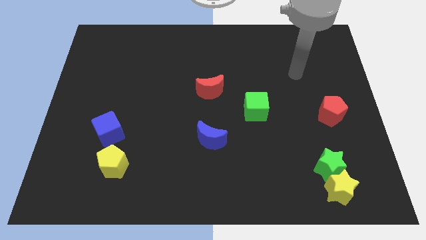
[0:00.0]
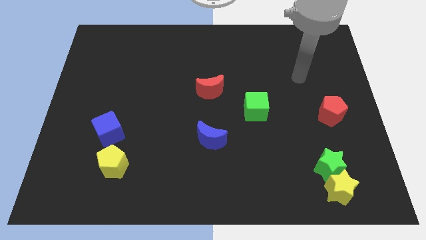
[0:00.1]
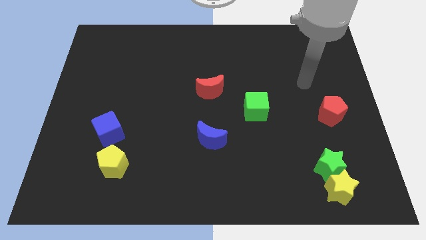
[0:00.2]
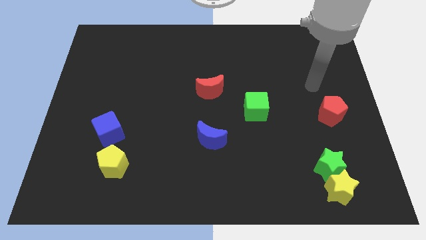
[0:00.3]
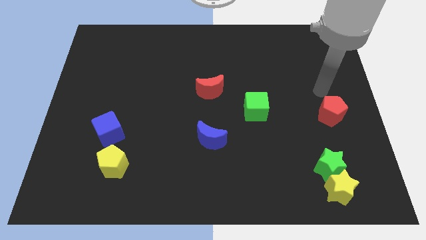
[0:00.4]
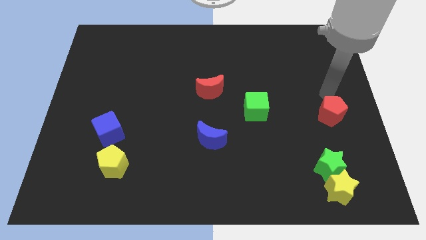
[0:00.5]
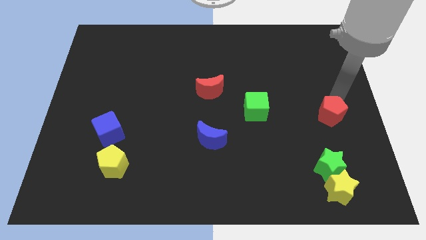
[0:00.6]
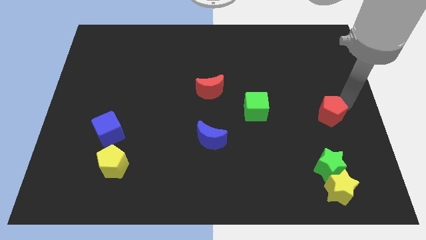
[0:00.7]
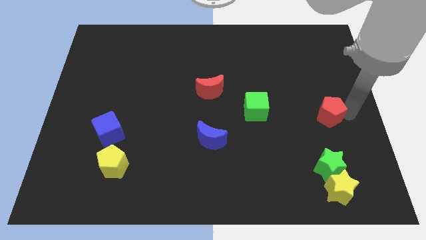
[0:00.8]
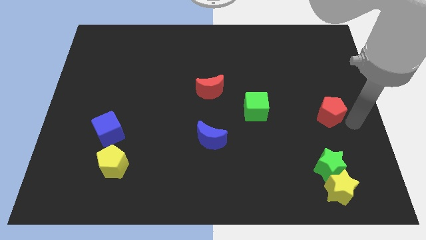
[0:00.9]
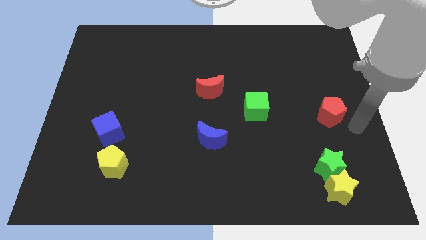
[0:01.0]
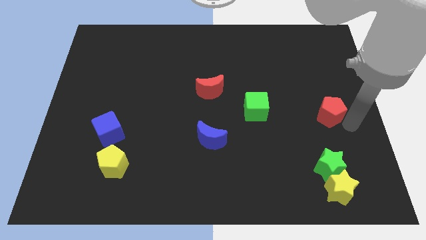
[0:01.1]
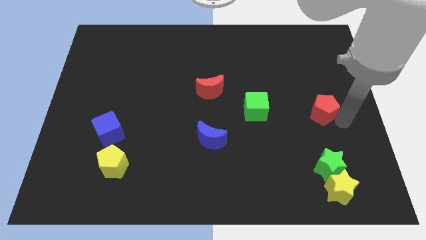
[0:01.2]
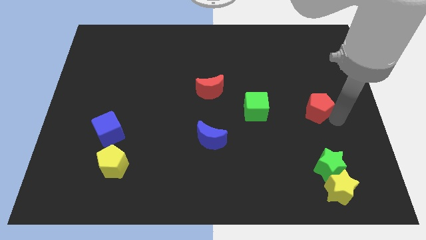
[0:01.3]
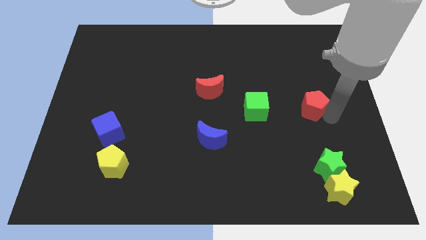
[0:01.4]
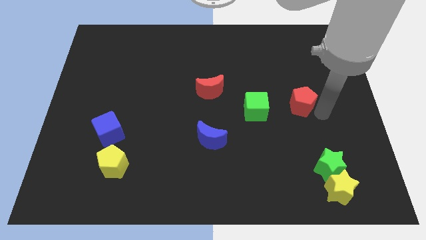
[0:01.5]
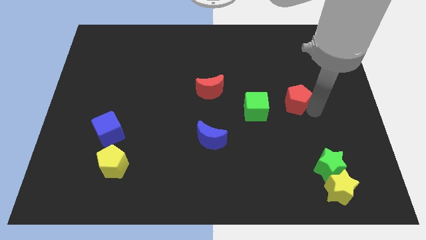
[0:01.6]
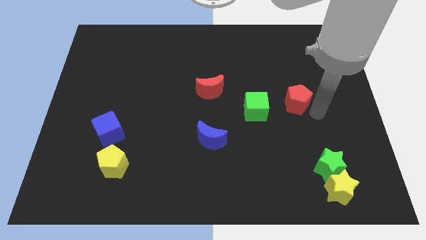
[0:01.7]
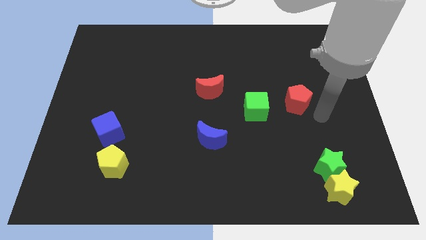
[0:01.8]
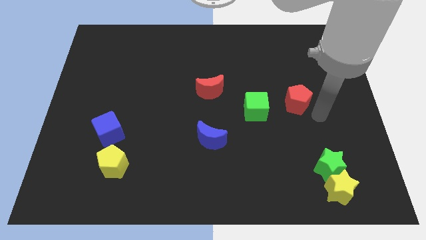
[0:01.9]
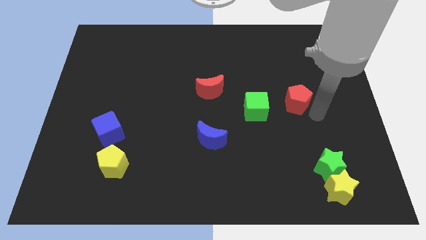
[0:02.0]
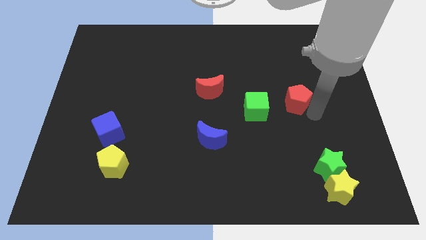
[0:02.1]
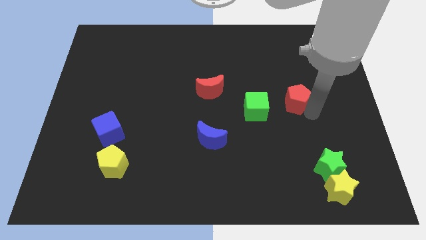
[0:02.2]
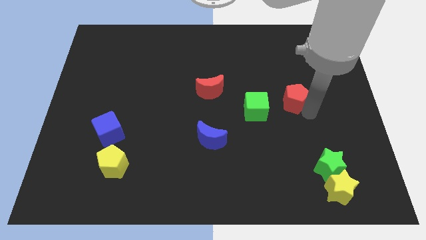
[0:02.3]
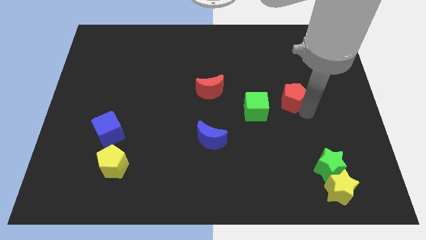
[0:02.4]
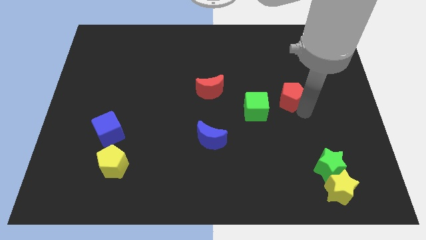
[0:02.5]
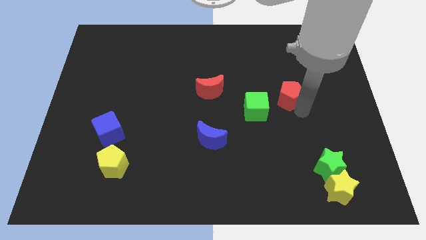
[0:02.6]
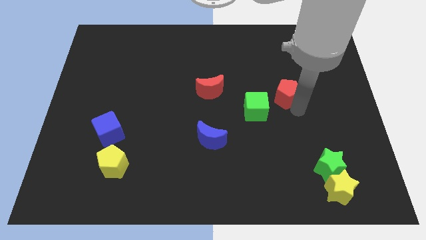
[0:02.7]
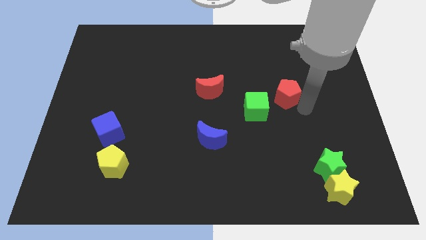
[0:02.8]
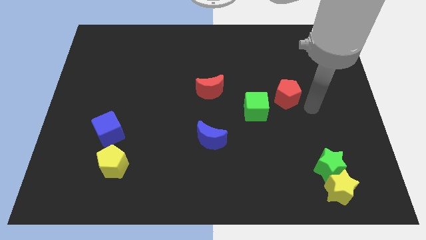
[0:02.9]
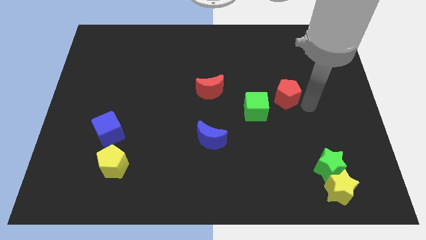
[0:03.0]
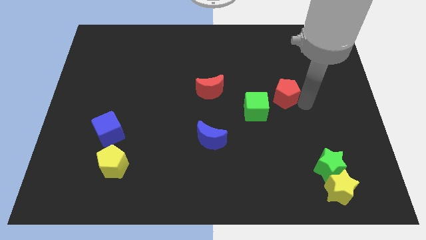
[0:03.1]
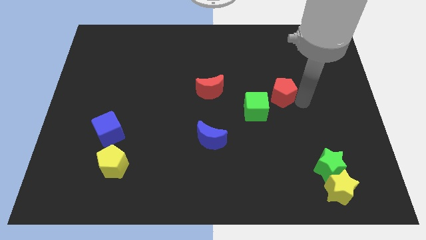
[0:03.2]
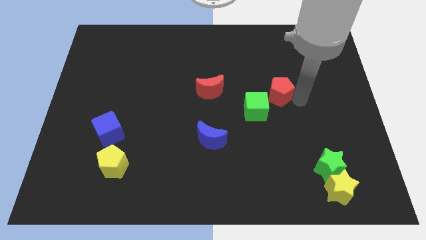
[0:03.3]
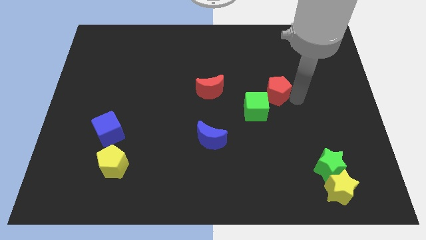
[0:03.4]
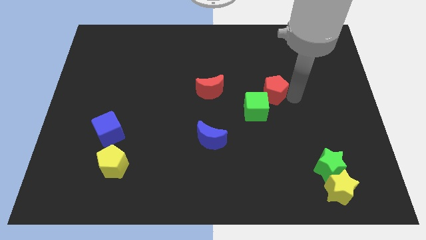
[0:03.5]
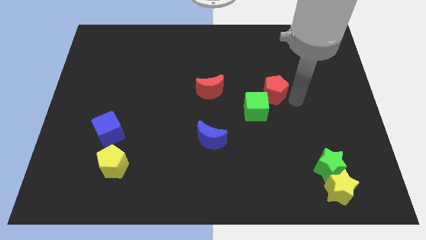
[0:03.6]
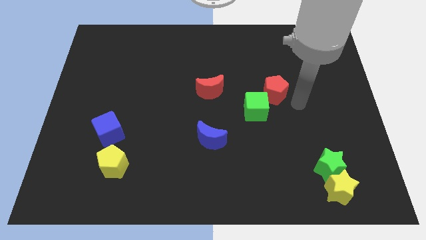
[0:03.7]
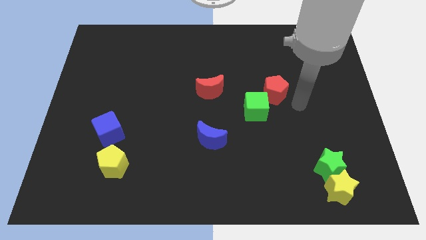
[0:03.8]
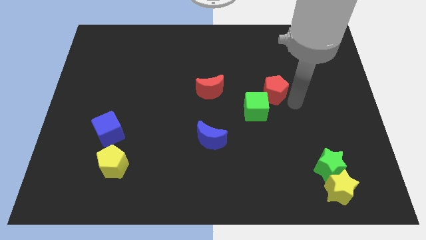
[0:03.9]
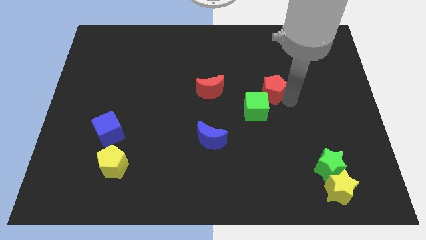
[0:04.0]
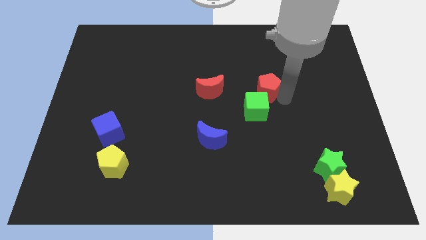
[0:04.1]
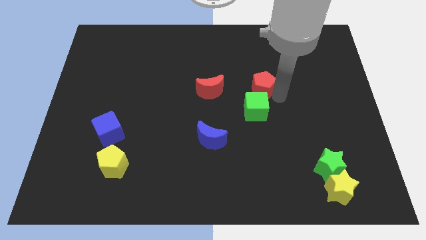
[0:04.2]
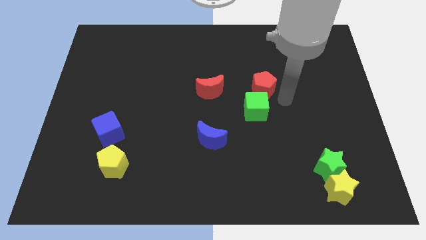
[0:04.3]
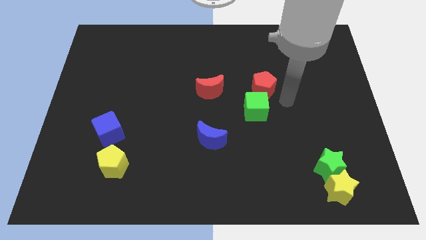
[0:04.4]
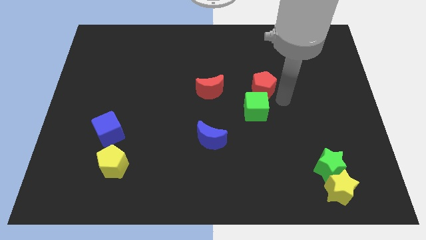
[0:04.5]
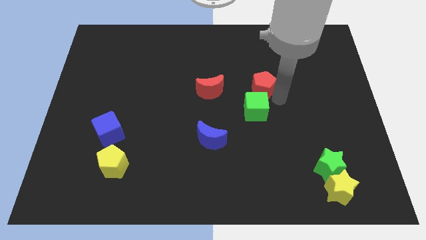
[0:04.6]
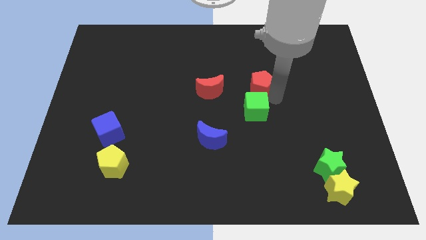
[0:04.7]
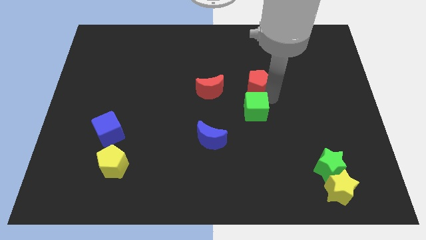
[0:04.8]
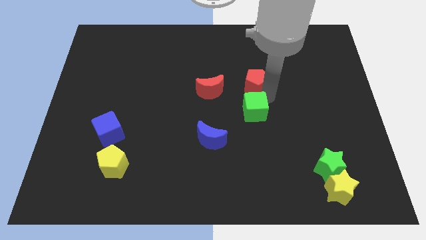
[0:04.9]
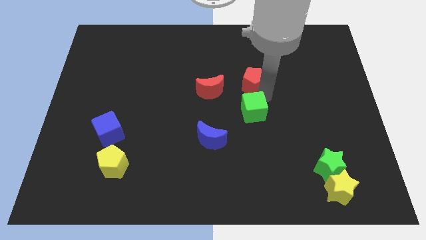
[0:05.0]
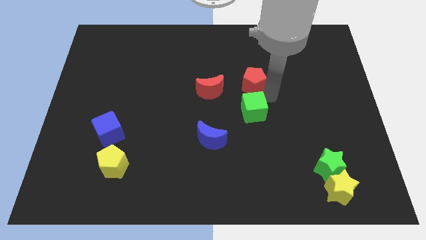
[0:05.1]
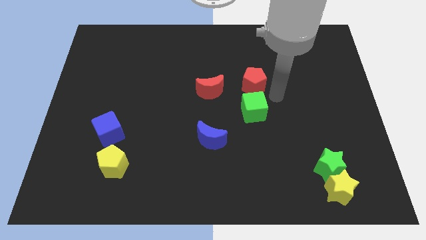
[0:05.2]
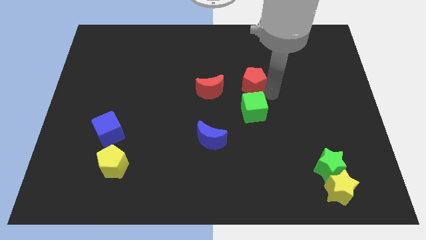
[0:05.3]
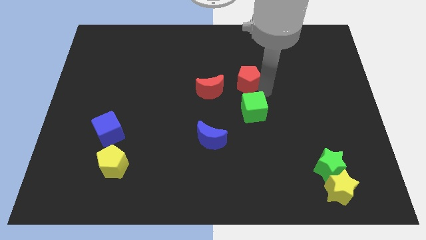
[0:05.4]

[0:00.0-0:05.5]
put the red pentagon to the top right of the red moon

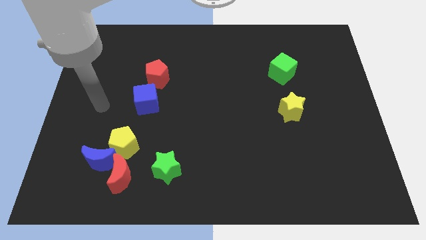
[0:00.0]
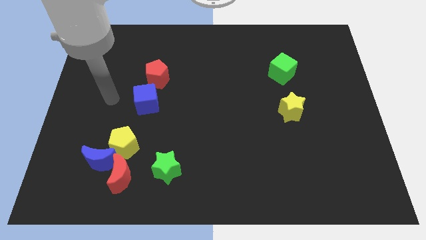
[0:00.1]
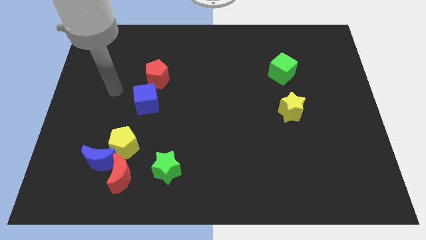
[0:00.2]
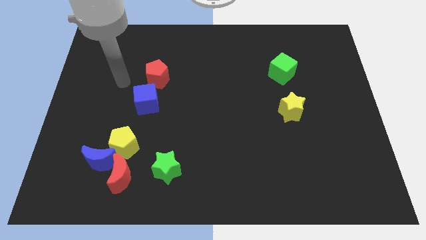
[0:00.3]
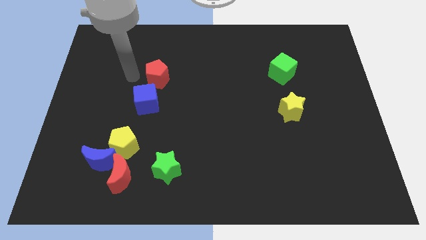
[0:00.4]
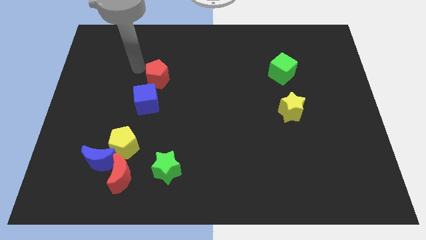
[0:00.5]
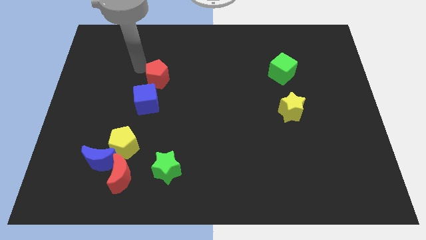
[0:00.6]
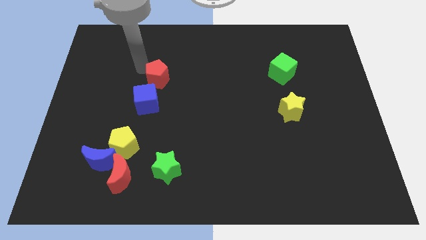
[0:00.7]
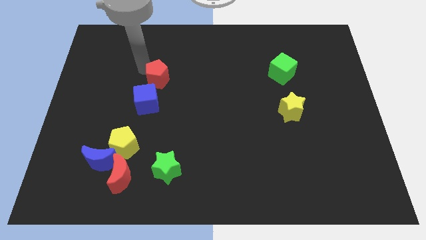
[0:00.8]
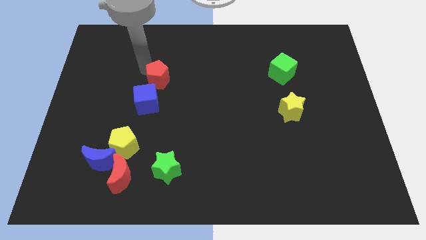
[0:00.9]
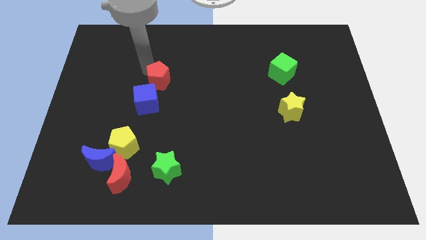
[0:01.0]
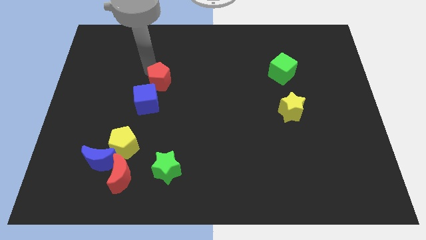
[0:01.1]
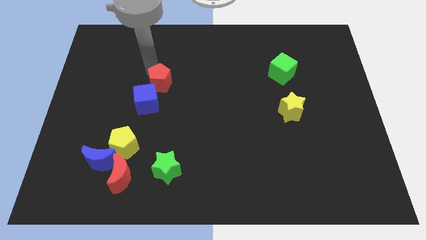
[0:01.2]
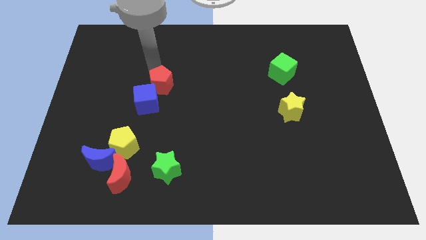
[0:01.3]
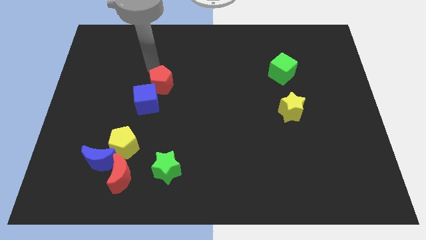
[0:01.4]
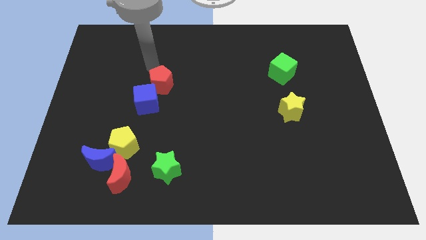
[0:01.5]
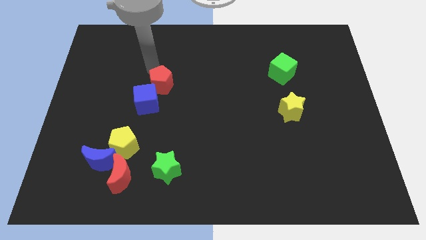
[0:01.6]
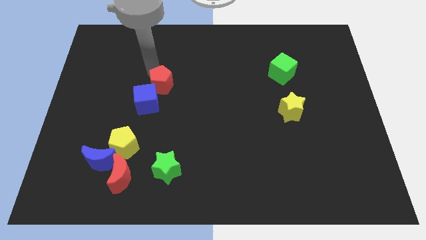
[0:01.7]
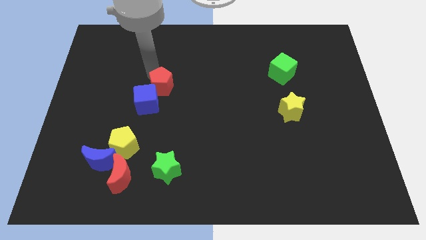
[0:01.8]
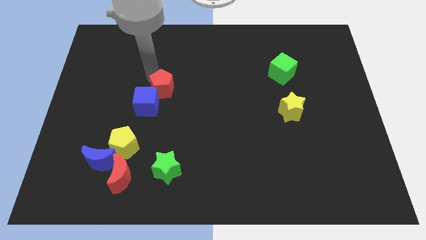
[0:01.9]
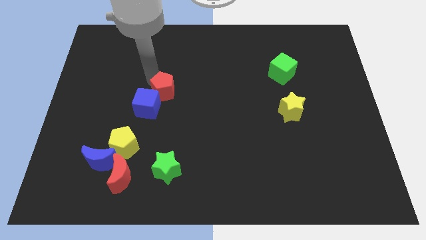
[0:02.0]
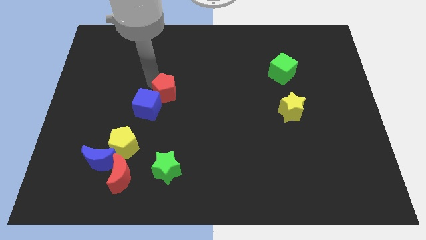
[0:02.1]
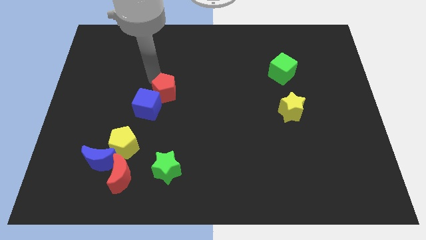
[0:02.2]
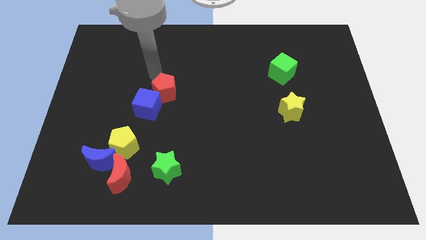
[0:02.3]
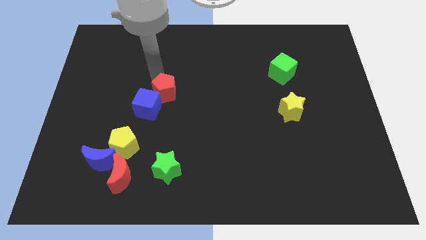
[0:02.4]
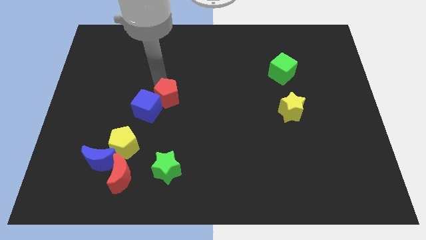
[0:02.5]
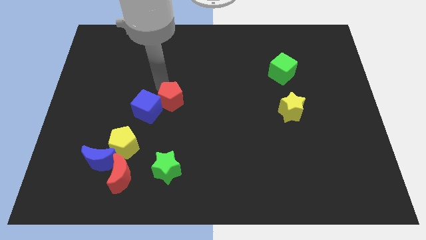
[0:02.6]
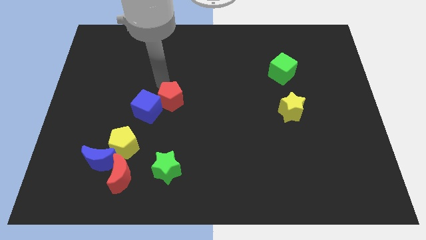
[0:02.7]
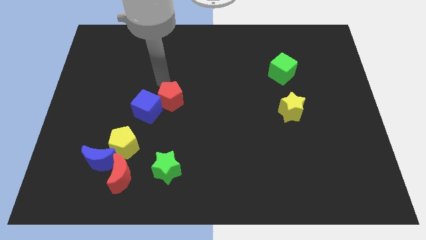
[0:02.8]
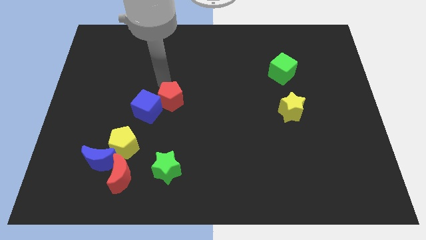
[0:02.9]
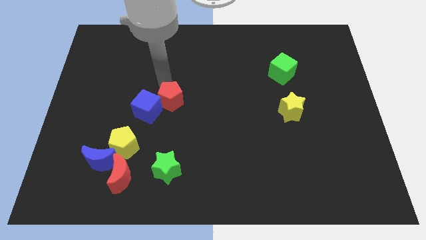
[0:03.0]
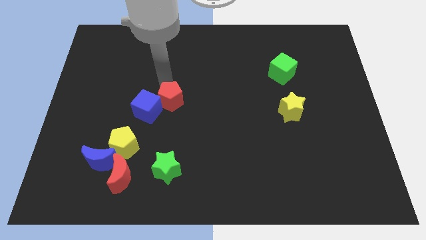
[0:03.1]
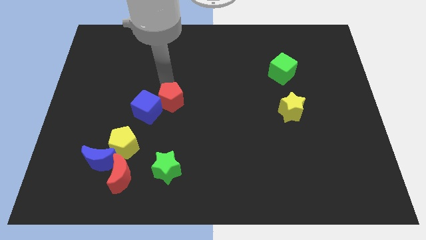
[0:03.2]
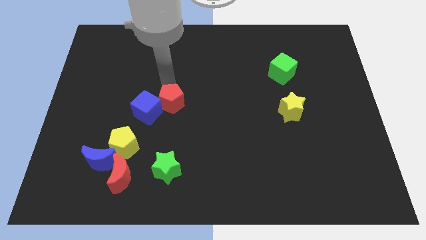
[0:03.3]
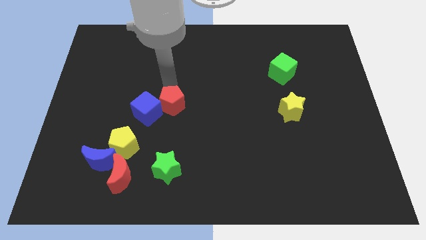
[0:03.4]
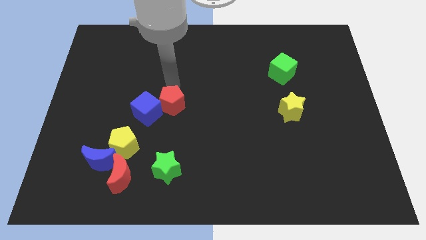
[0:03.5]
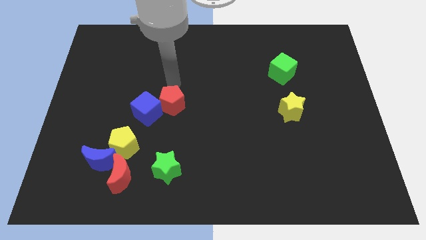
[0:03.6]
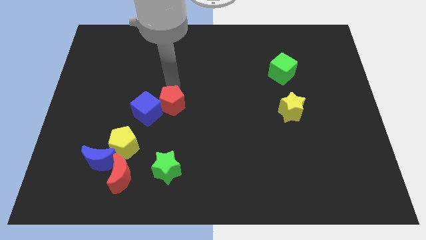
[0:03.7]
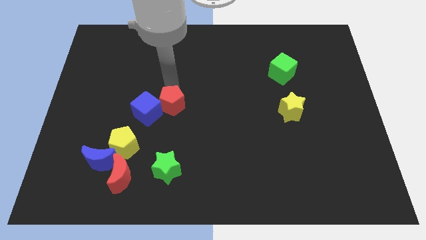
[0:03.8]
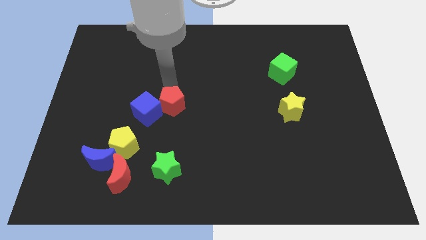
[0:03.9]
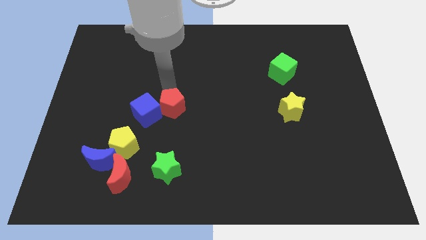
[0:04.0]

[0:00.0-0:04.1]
push the red pentagon above the green star
